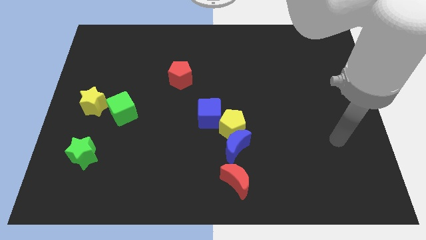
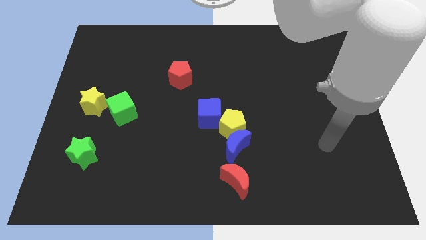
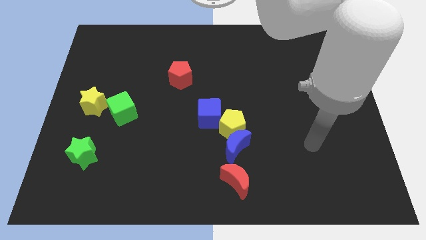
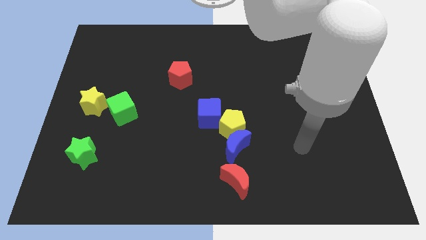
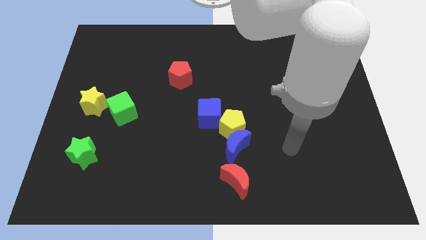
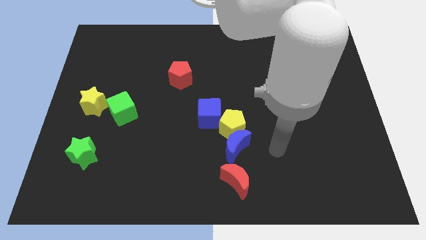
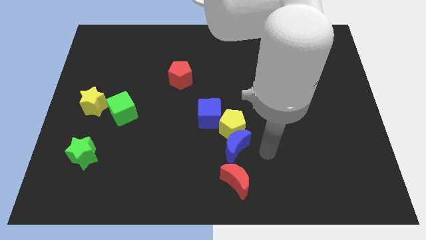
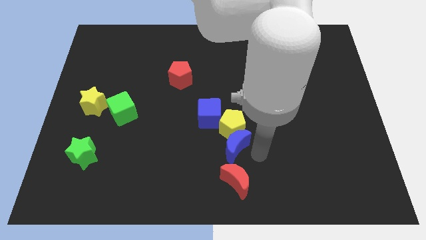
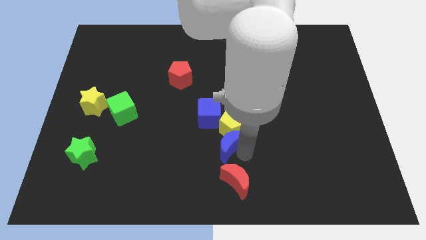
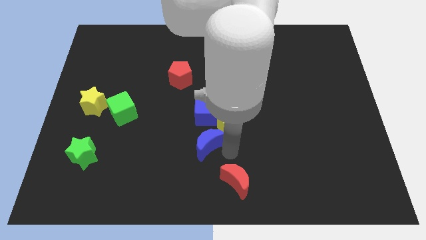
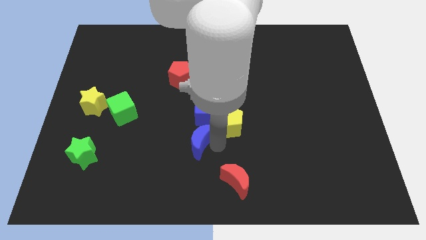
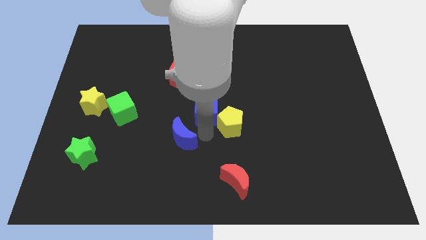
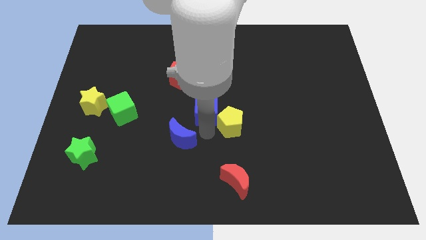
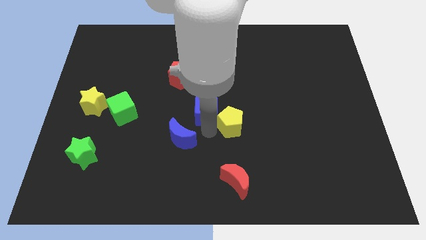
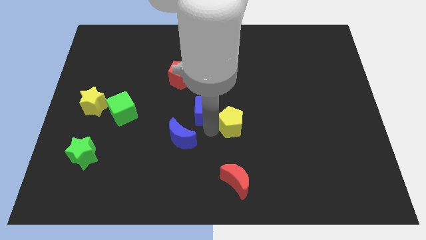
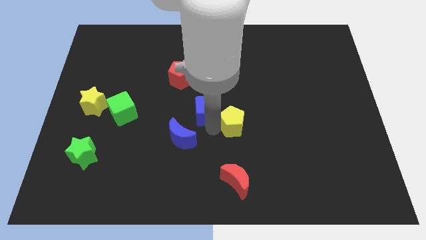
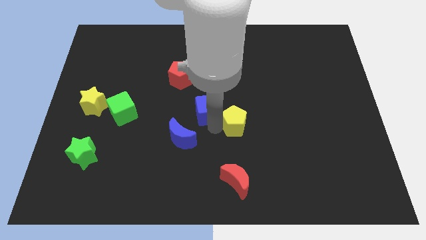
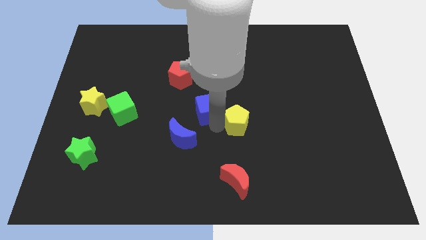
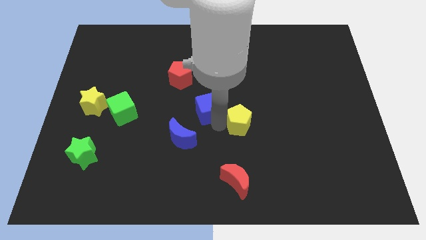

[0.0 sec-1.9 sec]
pull the yellow pentagon apart from the blue moon and blue cube

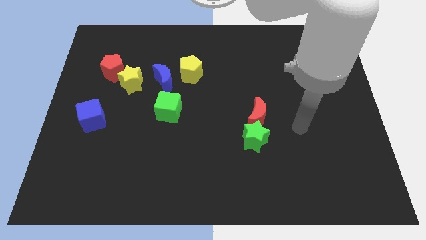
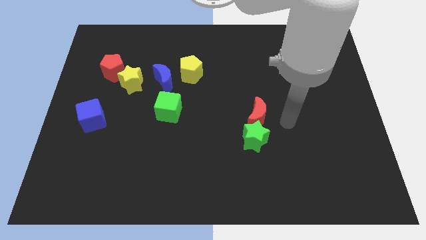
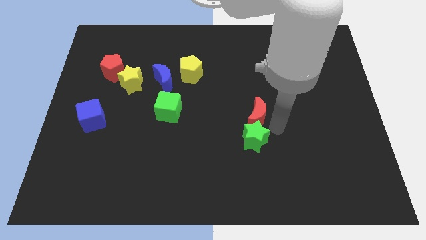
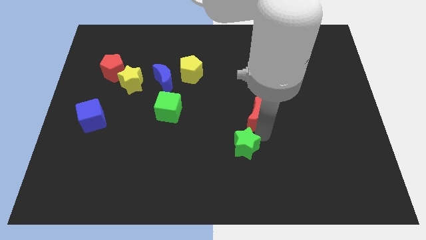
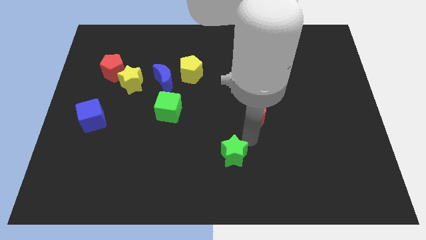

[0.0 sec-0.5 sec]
move the red moon away from the green star

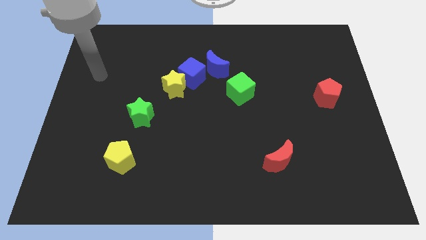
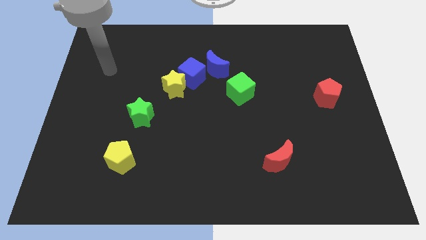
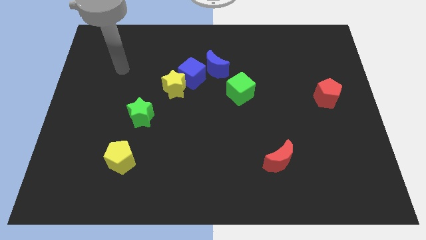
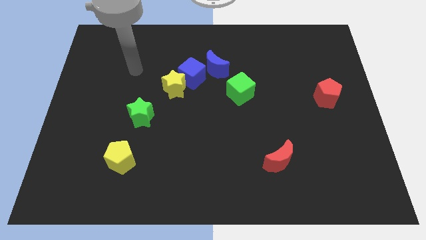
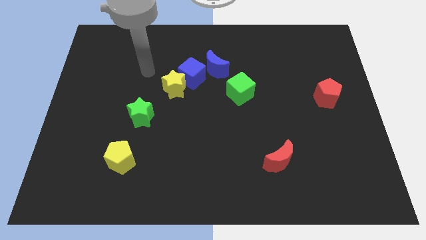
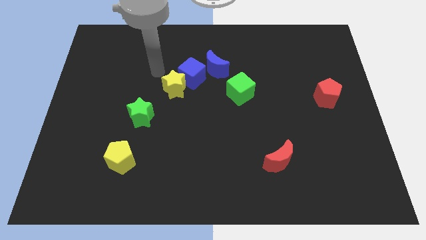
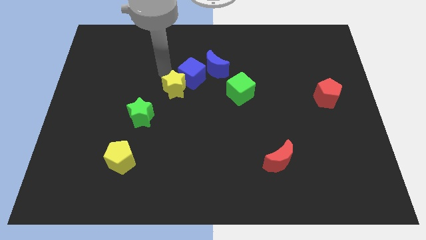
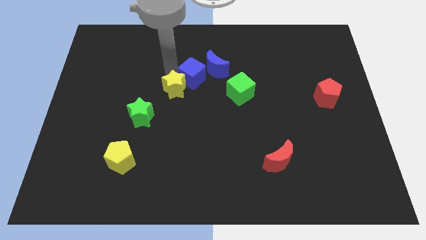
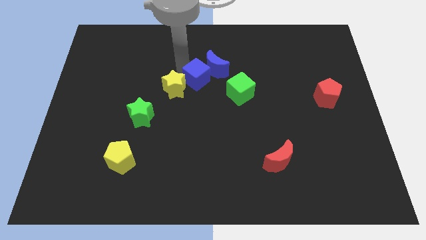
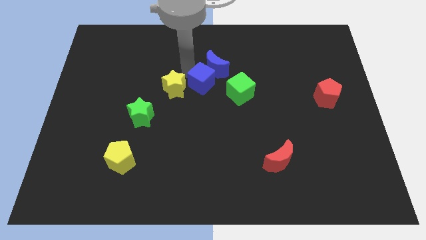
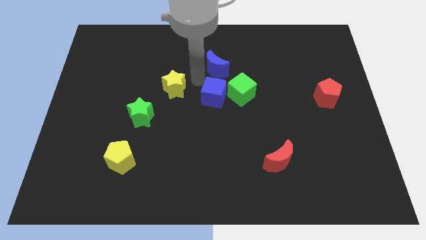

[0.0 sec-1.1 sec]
move the yellow star away from the blue cube

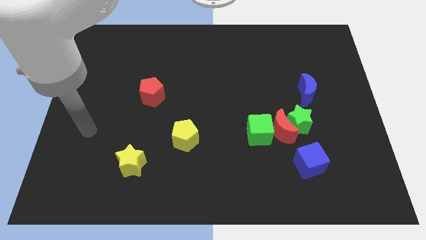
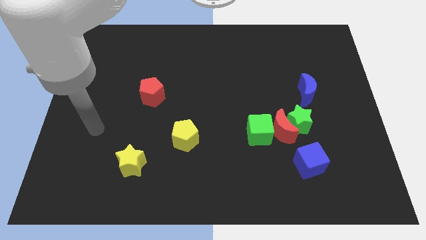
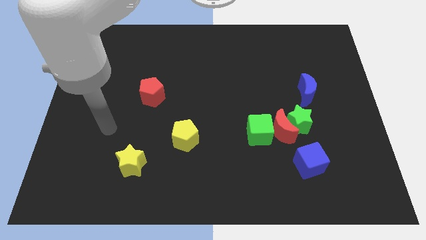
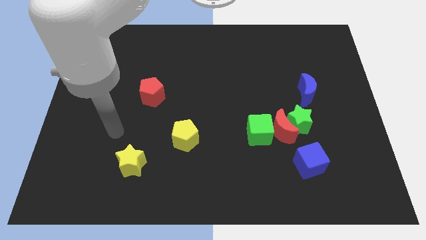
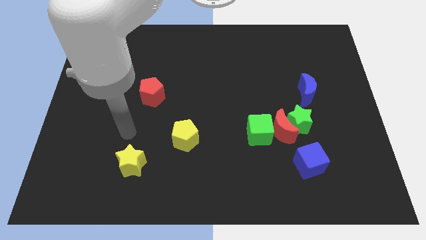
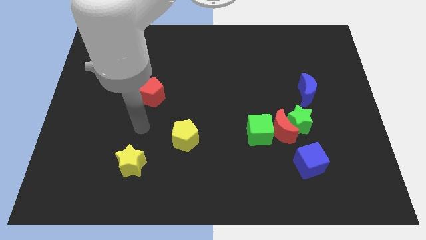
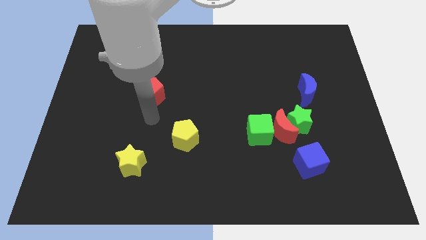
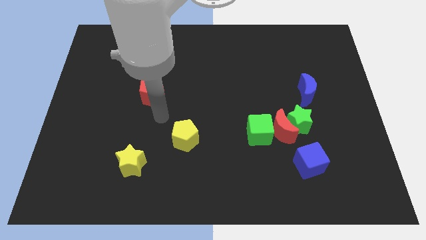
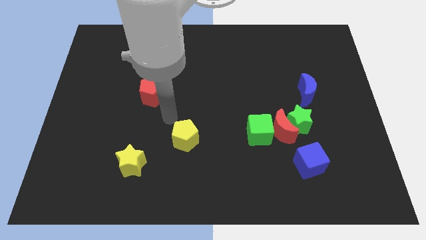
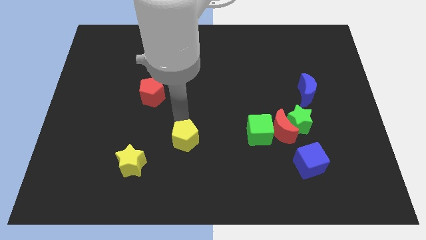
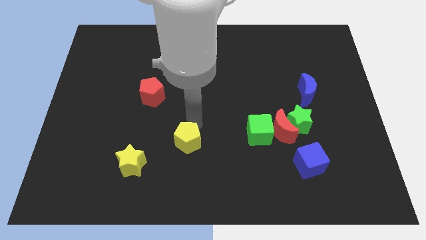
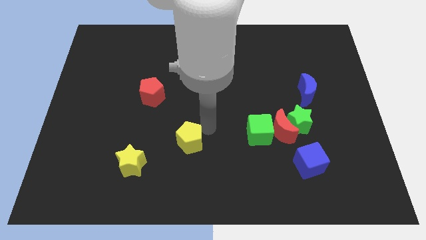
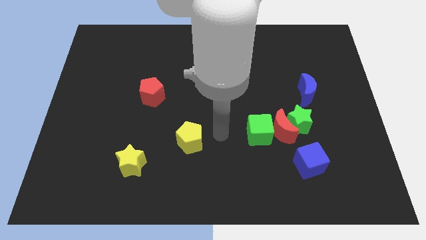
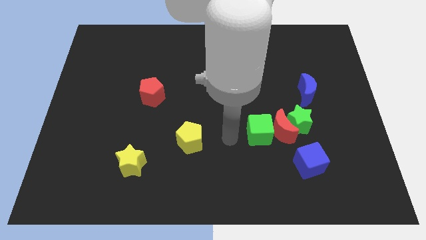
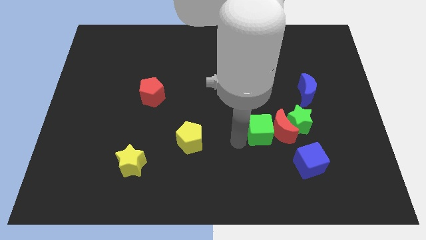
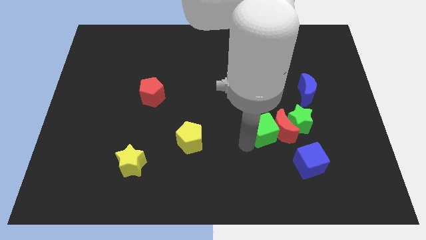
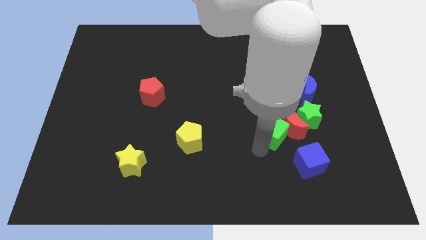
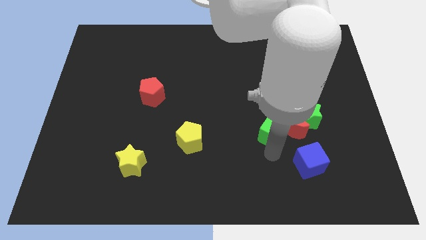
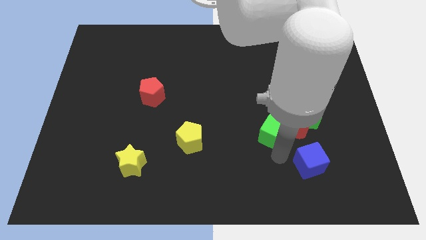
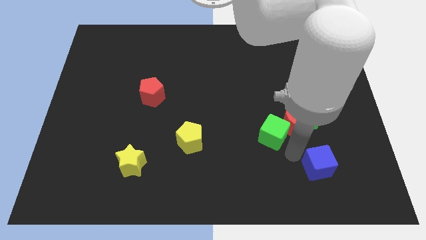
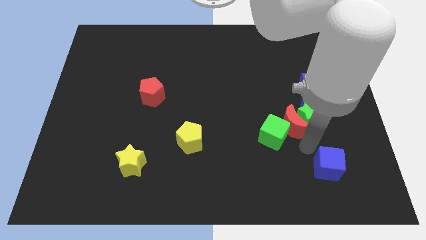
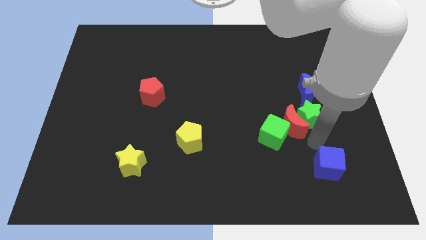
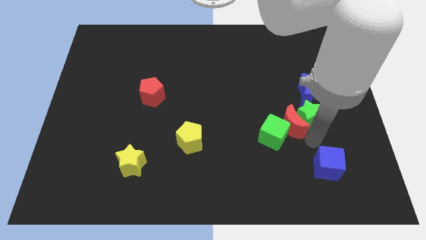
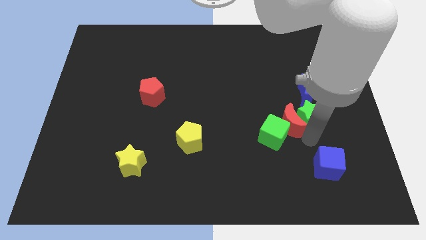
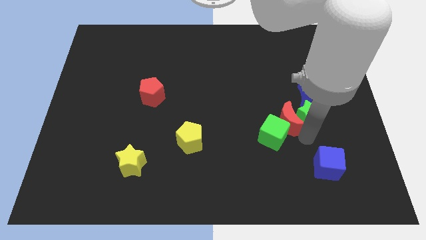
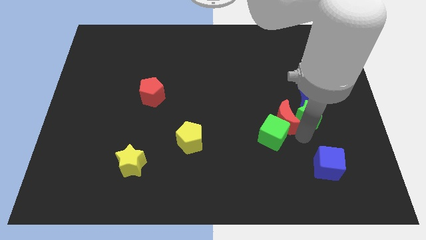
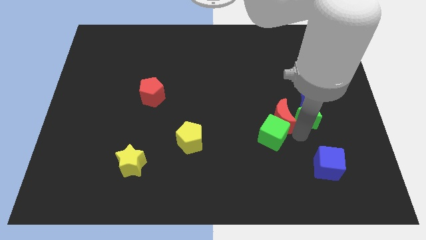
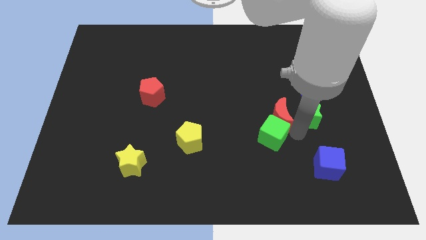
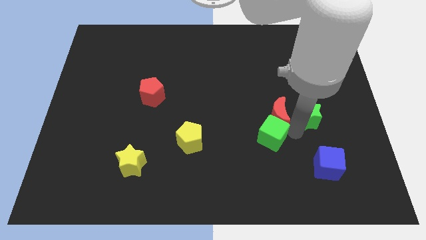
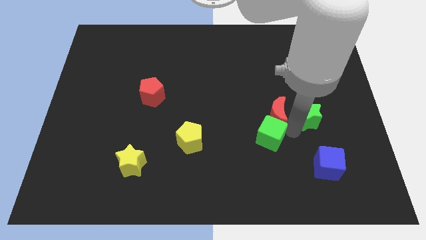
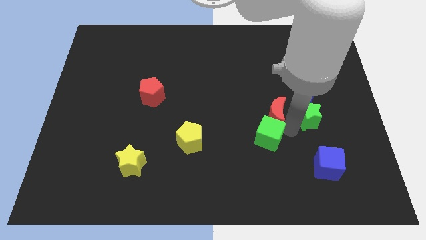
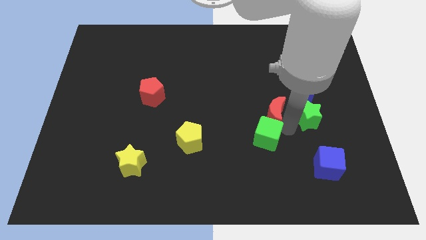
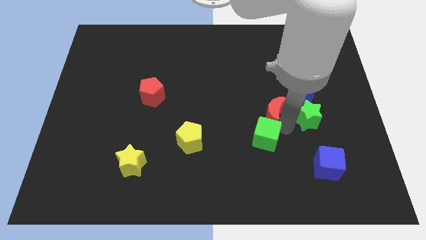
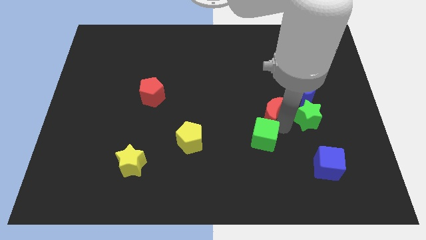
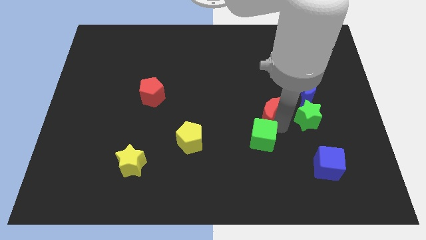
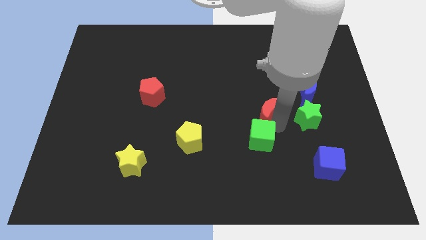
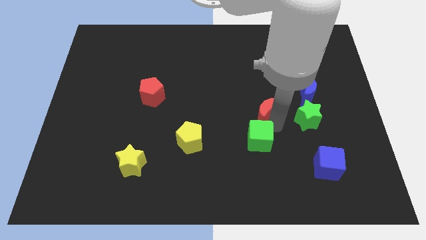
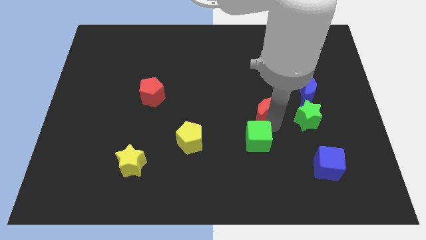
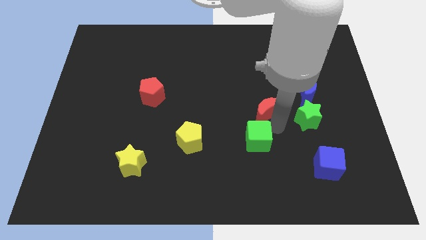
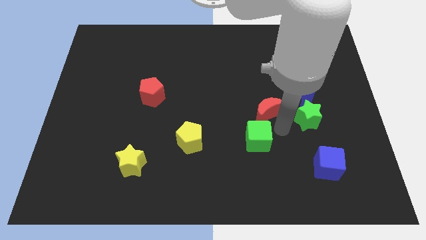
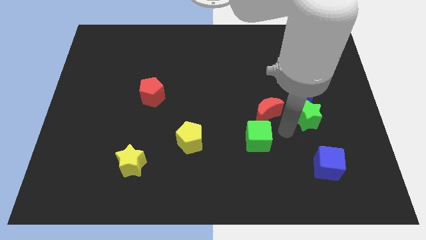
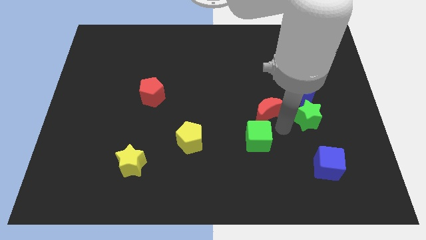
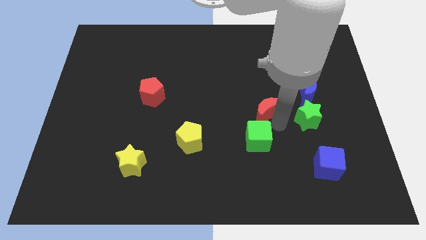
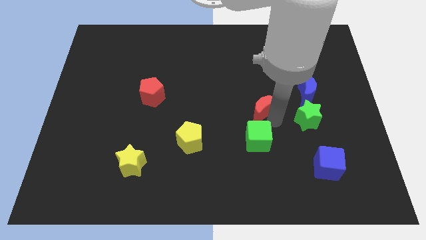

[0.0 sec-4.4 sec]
move the red moon away from the group of blocks

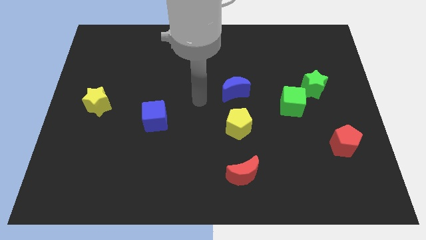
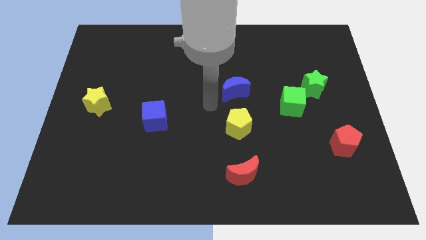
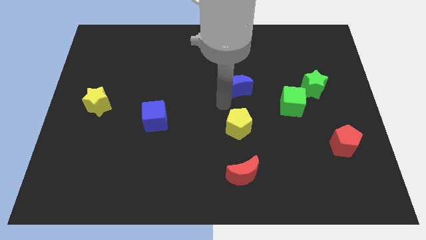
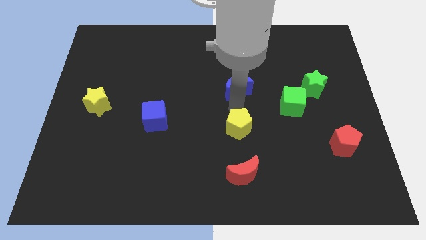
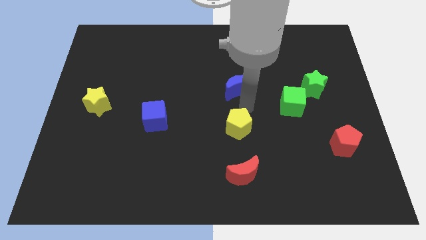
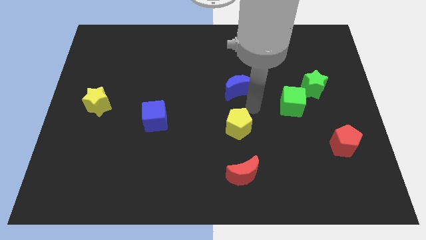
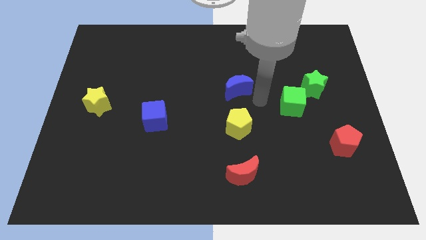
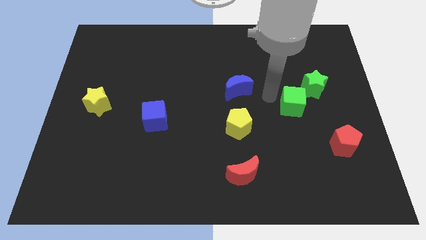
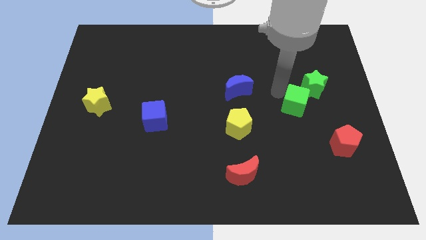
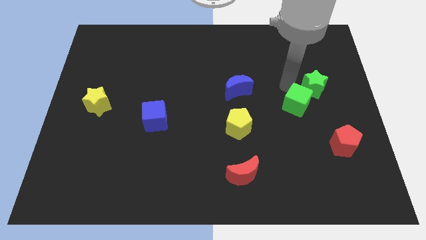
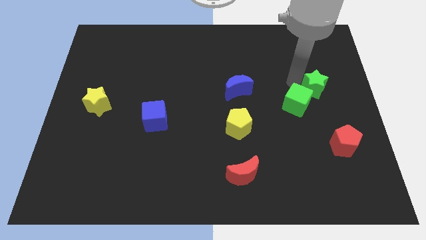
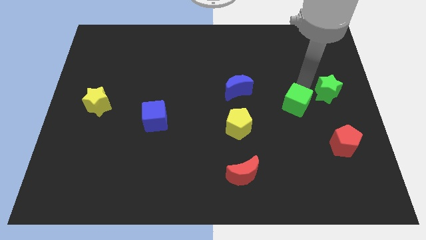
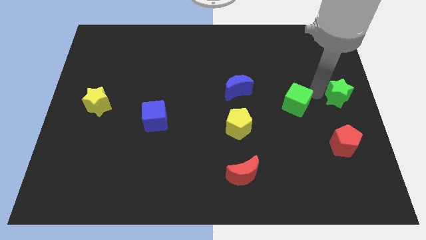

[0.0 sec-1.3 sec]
separate the green cube from the green star
